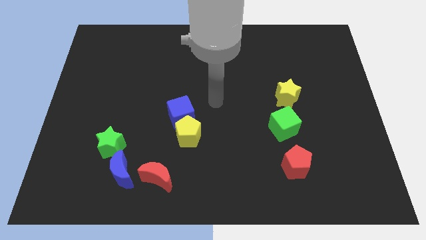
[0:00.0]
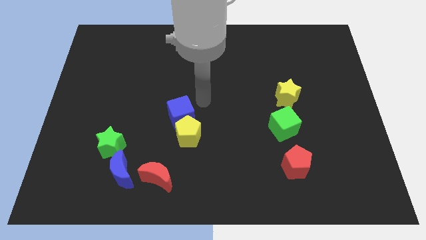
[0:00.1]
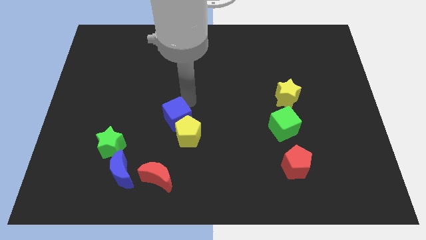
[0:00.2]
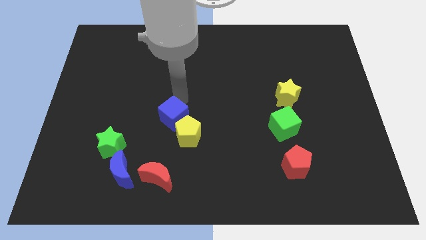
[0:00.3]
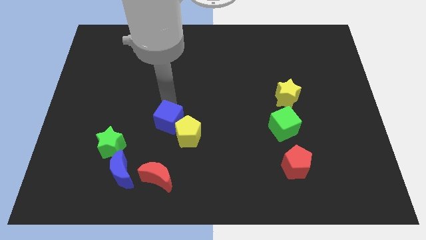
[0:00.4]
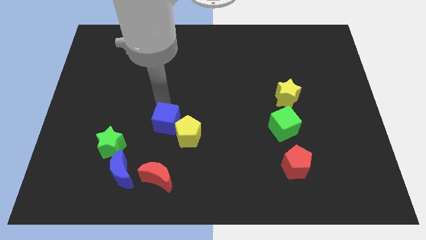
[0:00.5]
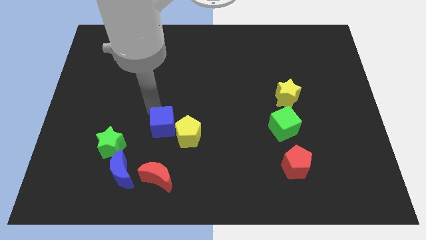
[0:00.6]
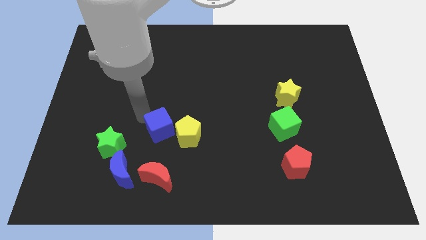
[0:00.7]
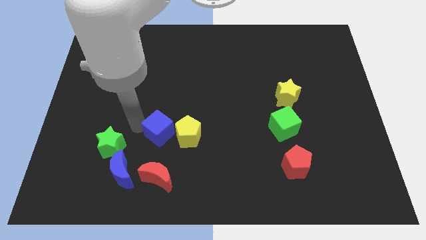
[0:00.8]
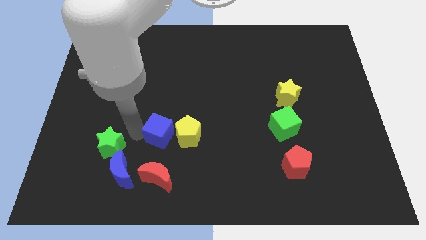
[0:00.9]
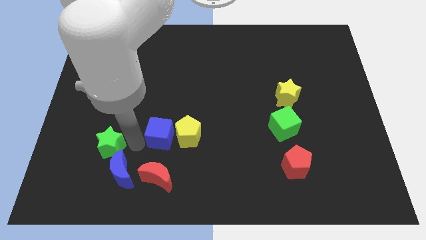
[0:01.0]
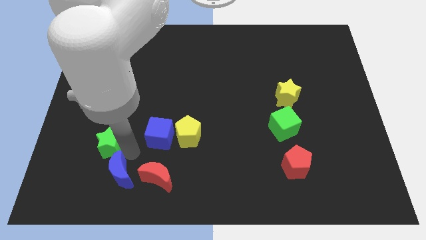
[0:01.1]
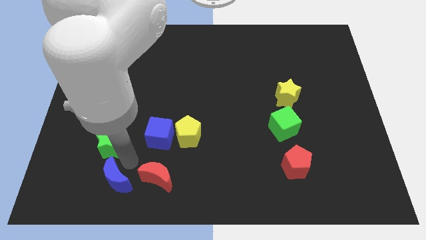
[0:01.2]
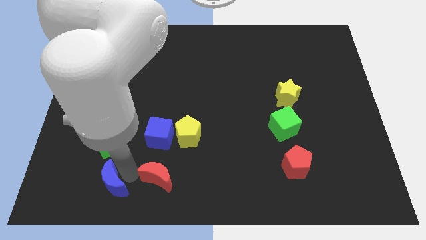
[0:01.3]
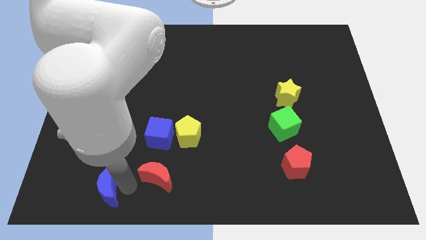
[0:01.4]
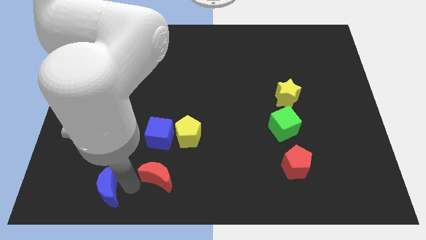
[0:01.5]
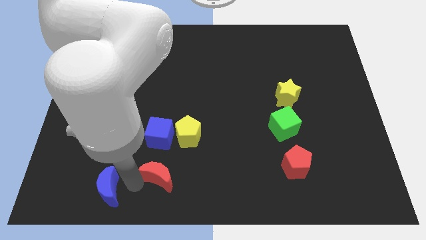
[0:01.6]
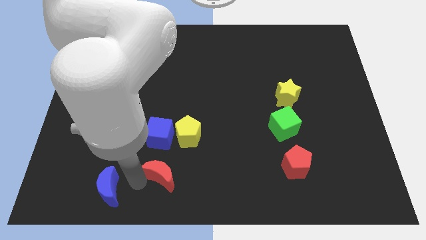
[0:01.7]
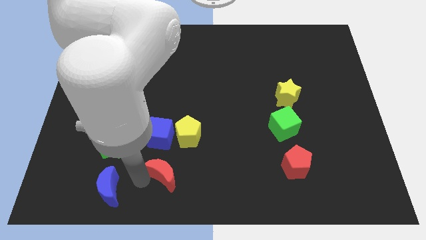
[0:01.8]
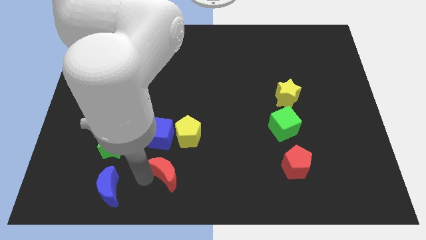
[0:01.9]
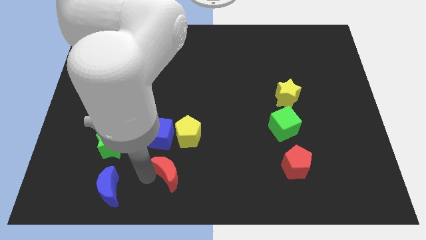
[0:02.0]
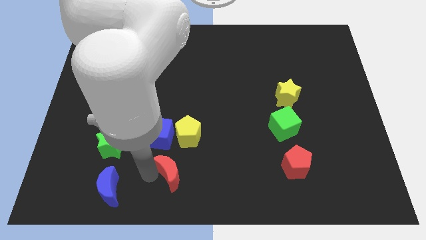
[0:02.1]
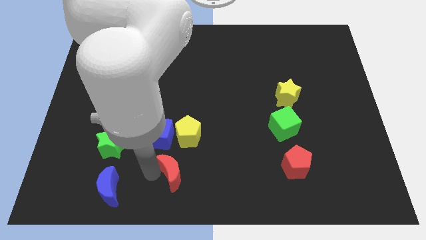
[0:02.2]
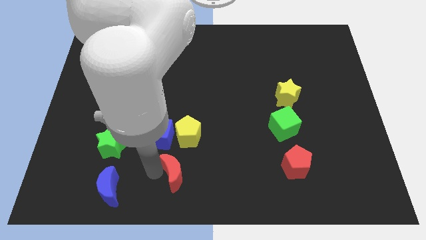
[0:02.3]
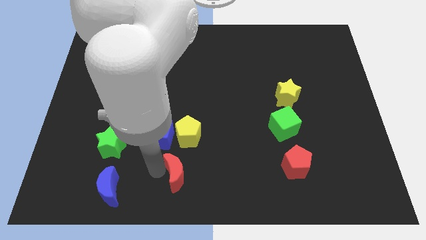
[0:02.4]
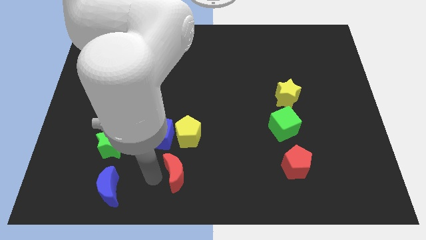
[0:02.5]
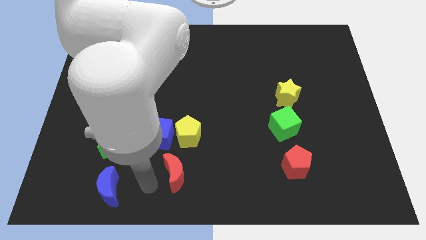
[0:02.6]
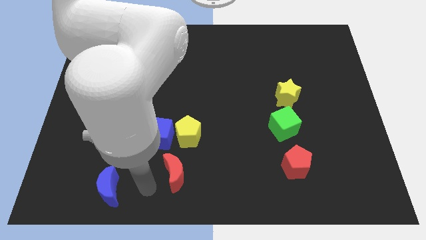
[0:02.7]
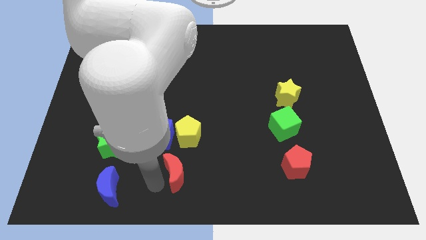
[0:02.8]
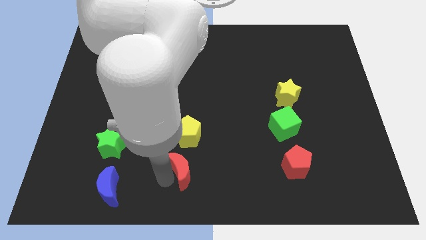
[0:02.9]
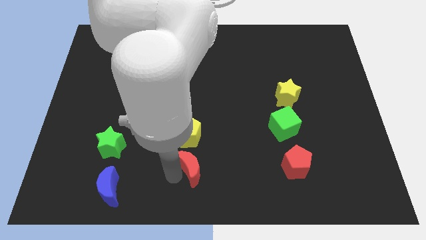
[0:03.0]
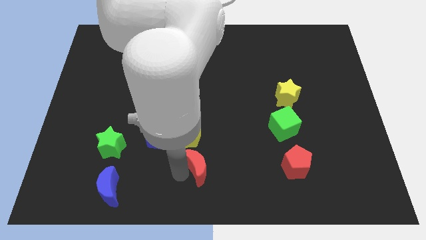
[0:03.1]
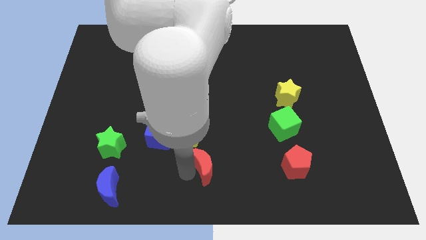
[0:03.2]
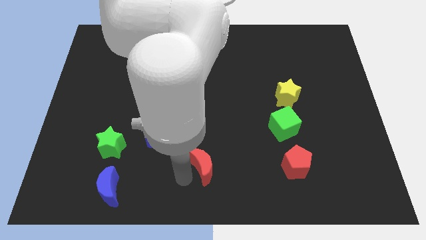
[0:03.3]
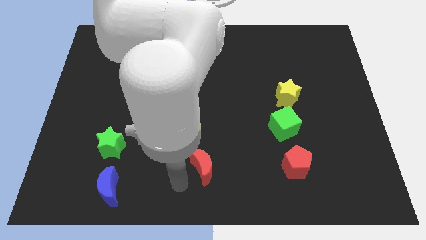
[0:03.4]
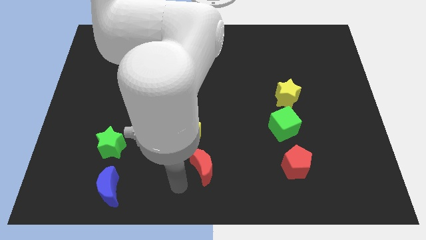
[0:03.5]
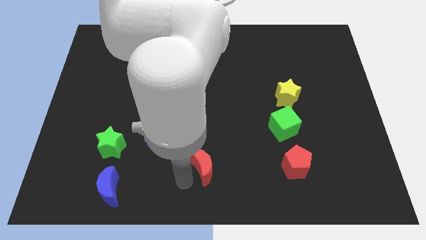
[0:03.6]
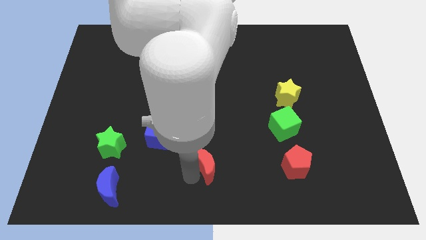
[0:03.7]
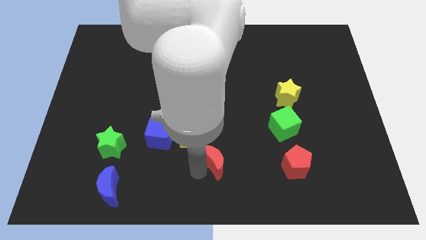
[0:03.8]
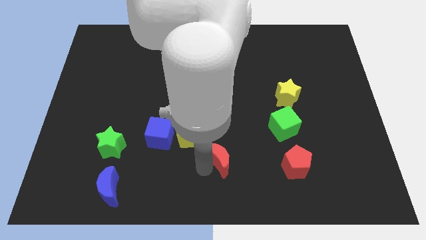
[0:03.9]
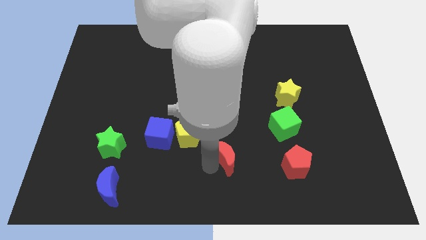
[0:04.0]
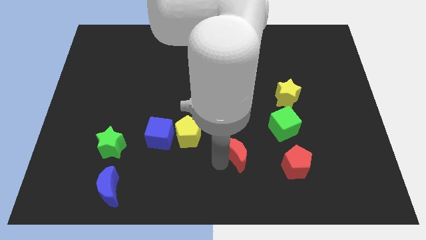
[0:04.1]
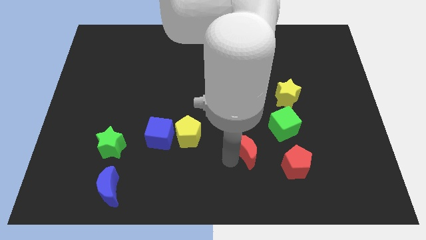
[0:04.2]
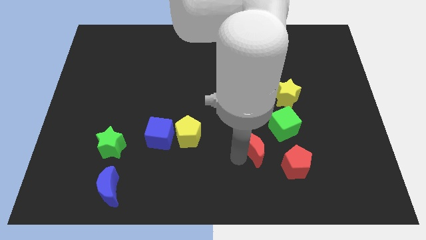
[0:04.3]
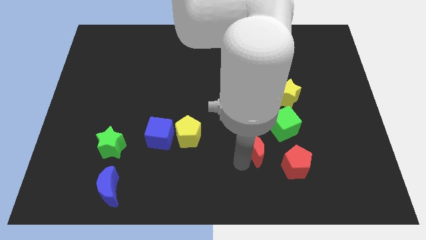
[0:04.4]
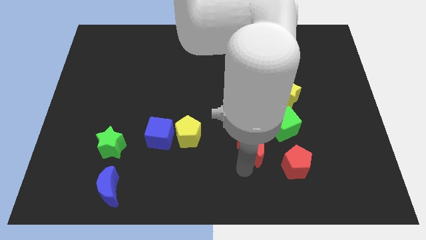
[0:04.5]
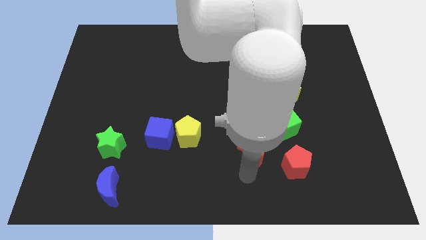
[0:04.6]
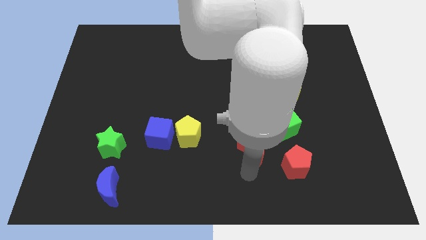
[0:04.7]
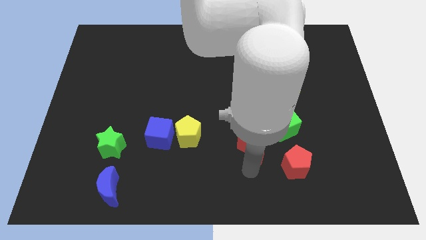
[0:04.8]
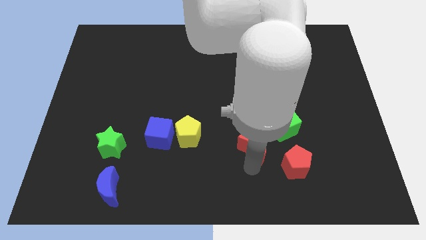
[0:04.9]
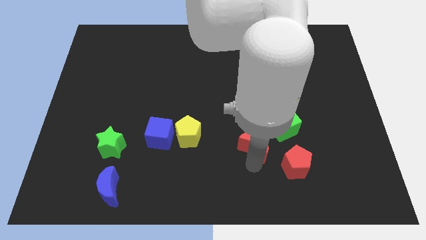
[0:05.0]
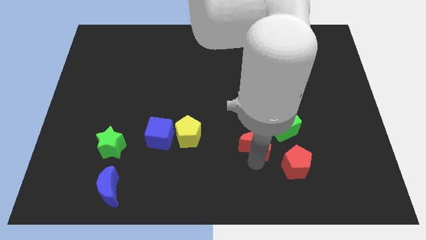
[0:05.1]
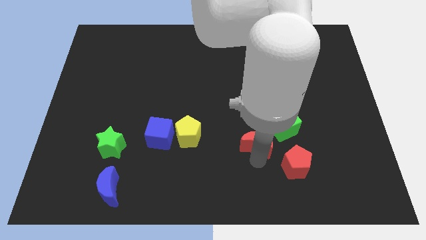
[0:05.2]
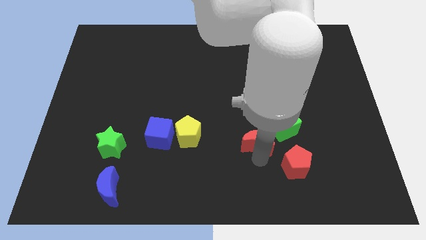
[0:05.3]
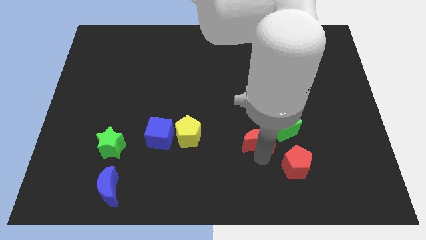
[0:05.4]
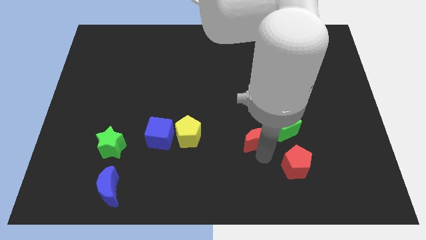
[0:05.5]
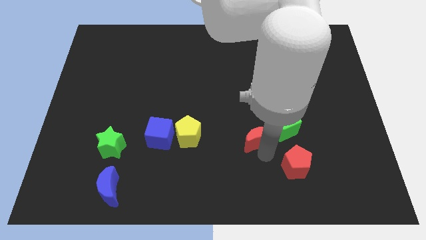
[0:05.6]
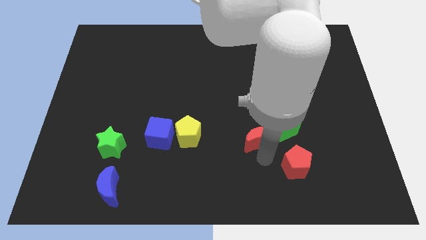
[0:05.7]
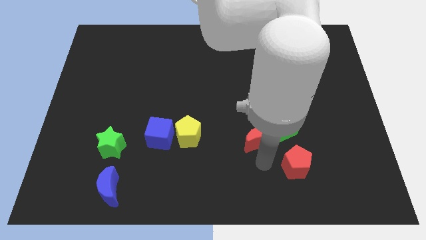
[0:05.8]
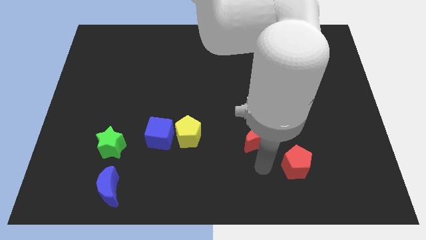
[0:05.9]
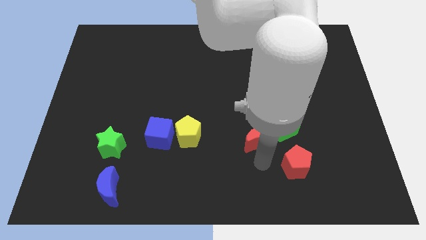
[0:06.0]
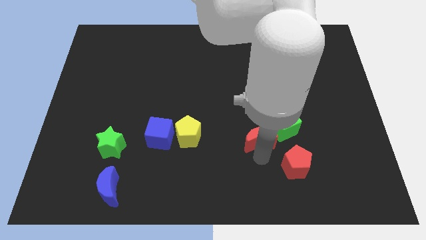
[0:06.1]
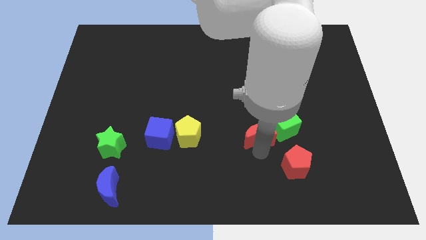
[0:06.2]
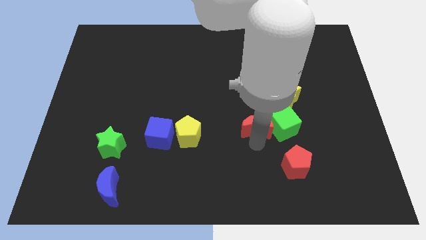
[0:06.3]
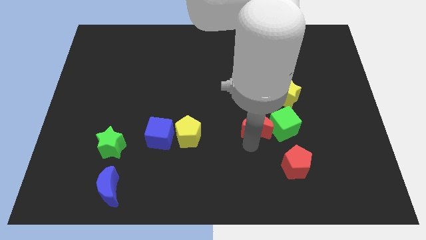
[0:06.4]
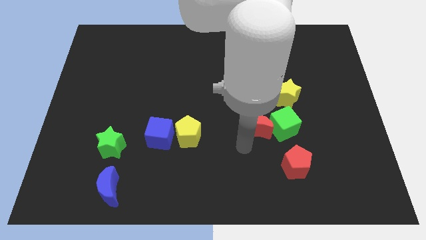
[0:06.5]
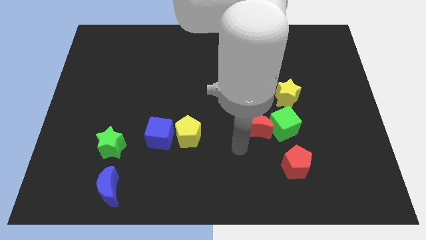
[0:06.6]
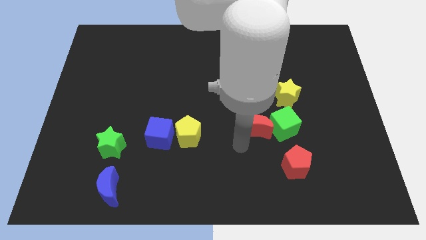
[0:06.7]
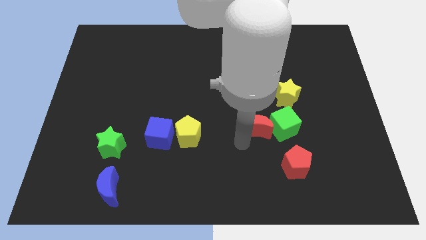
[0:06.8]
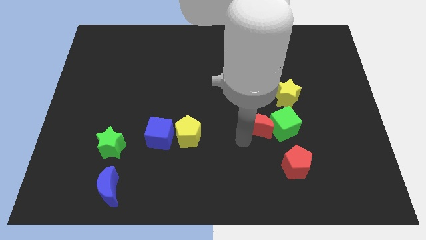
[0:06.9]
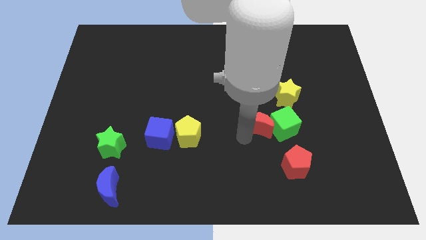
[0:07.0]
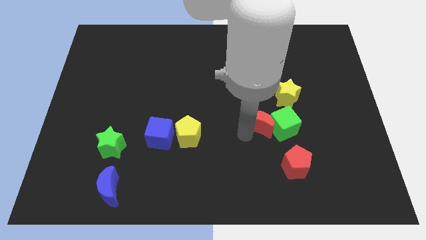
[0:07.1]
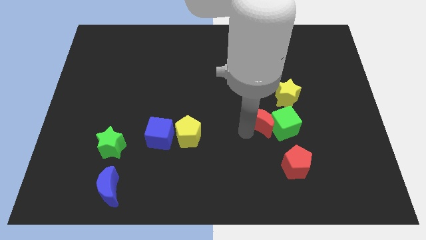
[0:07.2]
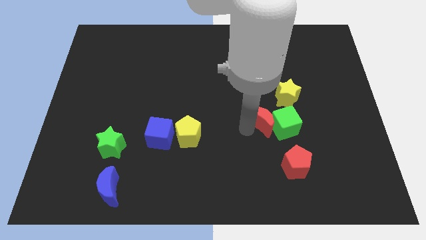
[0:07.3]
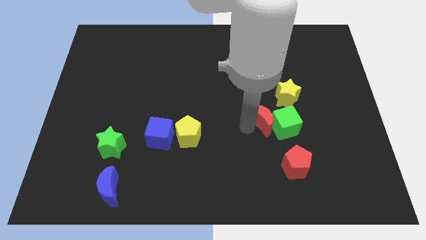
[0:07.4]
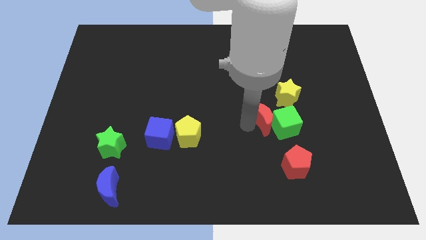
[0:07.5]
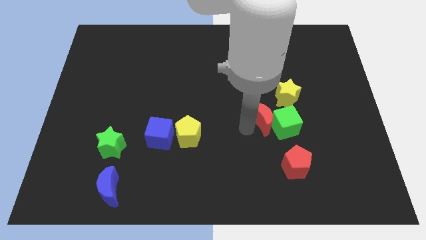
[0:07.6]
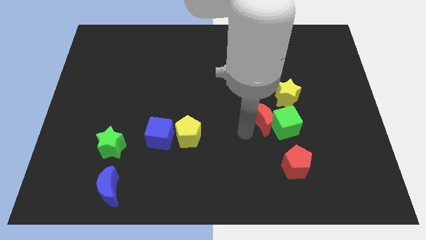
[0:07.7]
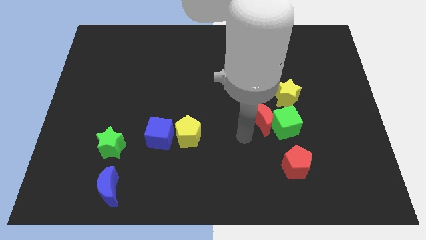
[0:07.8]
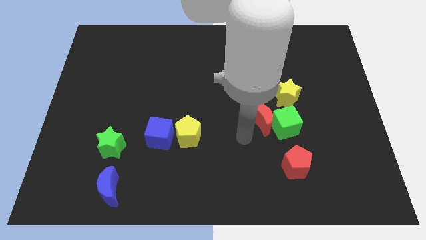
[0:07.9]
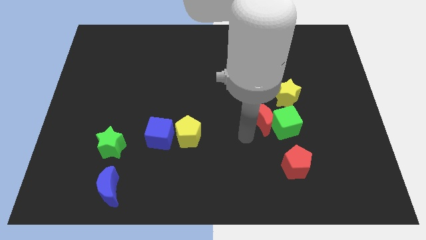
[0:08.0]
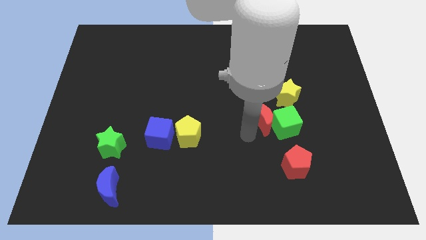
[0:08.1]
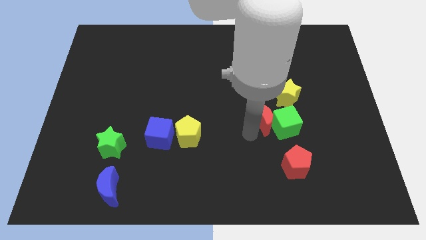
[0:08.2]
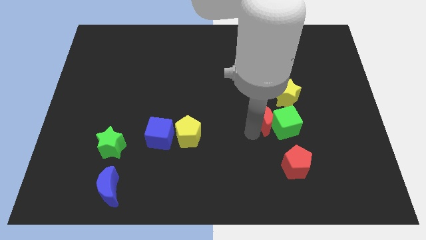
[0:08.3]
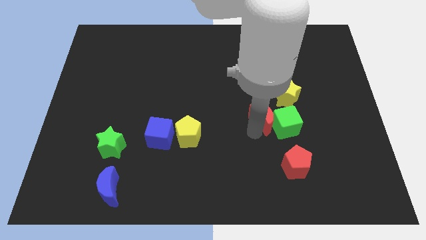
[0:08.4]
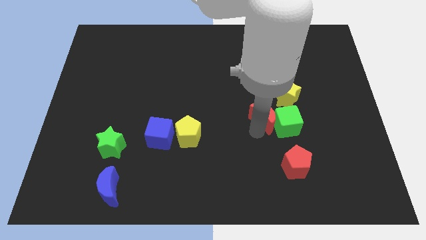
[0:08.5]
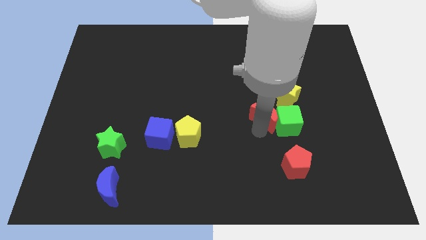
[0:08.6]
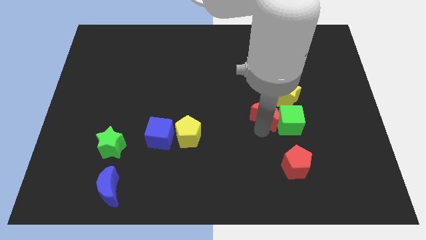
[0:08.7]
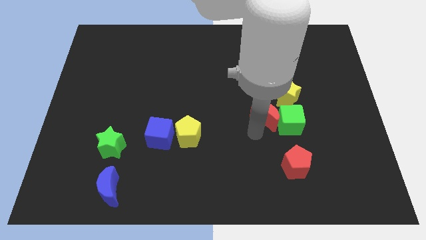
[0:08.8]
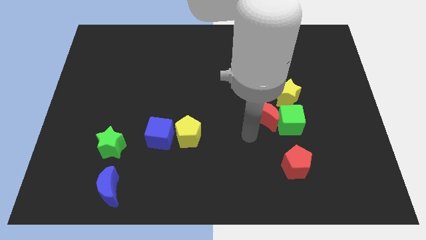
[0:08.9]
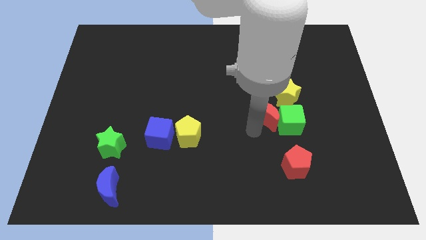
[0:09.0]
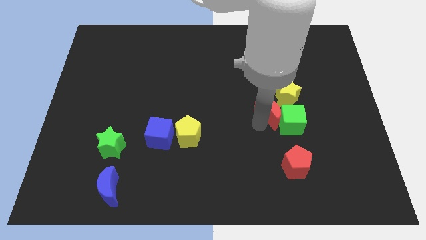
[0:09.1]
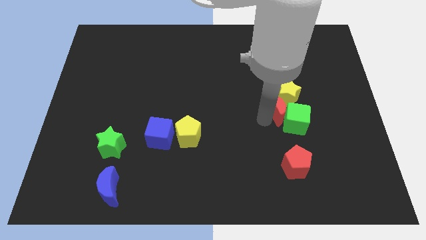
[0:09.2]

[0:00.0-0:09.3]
put the red moon to the yellow star
